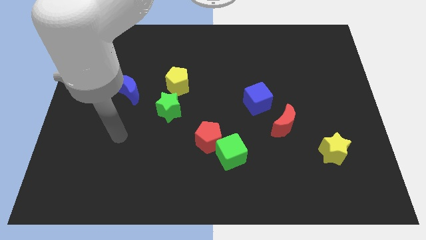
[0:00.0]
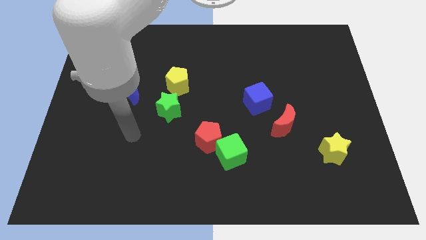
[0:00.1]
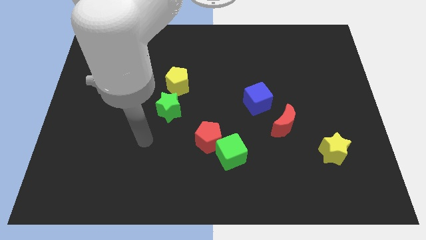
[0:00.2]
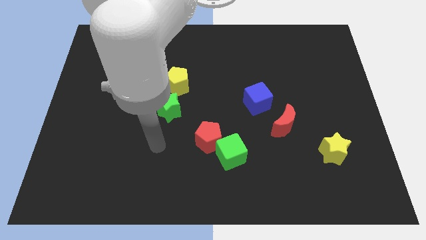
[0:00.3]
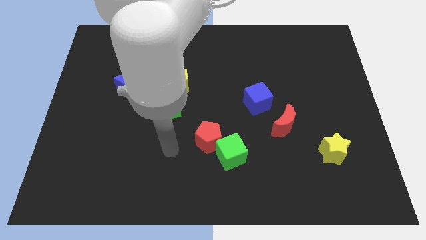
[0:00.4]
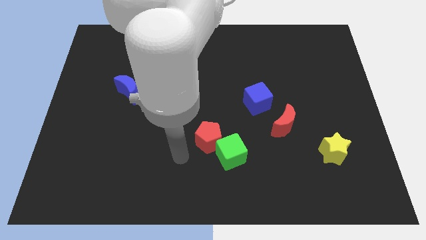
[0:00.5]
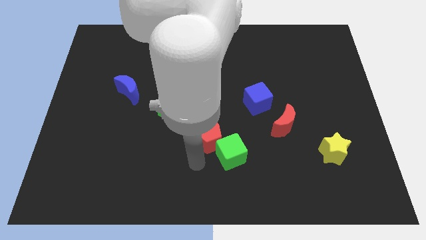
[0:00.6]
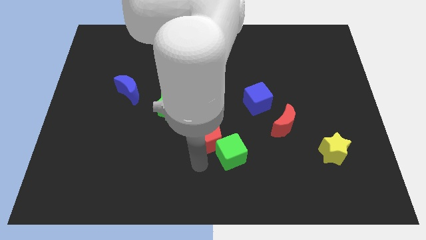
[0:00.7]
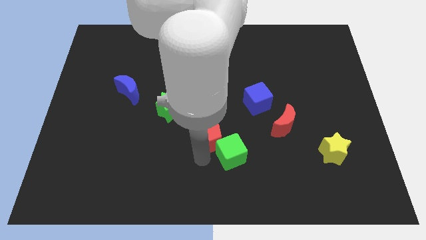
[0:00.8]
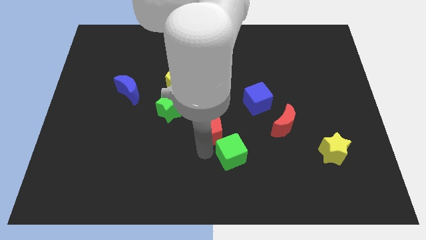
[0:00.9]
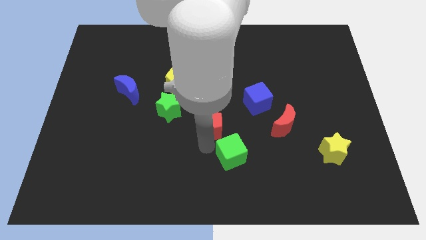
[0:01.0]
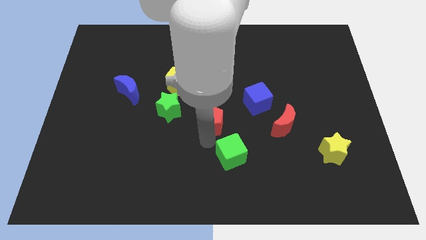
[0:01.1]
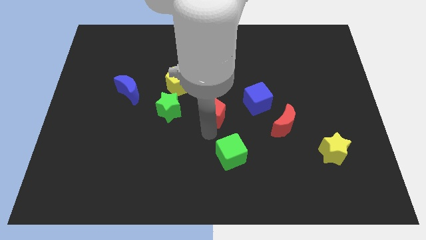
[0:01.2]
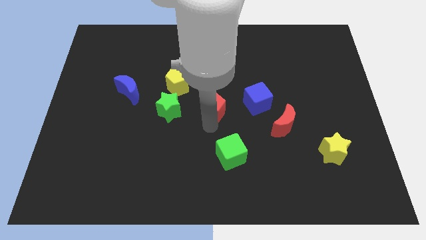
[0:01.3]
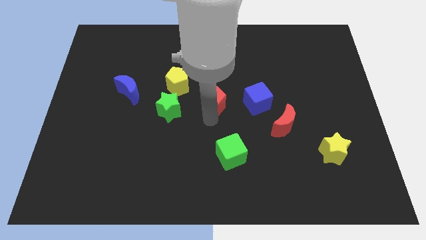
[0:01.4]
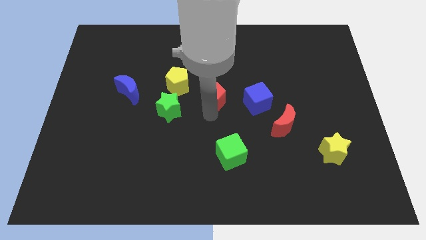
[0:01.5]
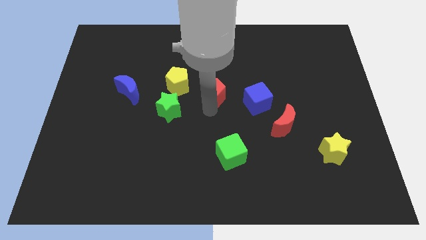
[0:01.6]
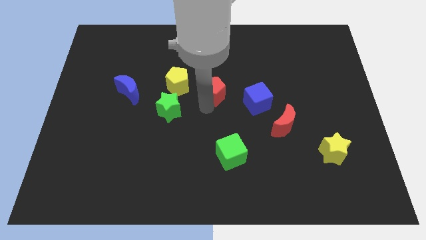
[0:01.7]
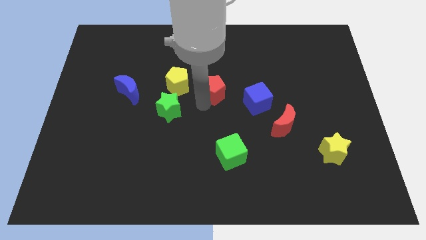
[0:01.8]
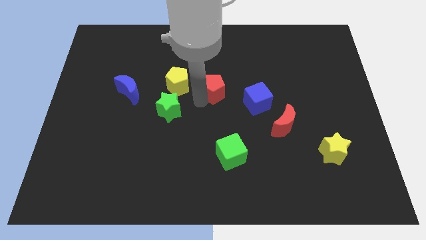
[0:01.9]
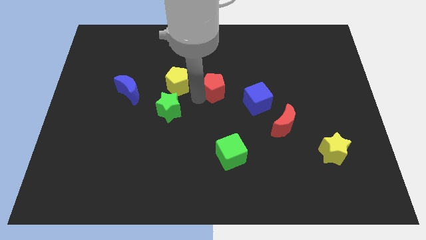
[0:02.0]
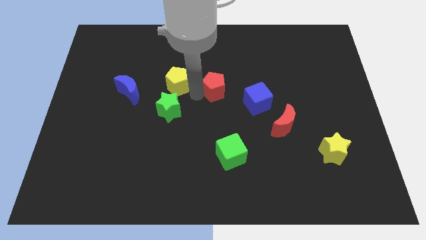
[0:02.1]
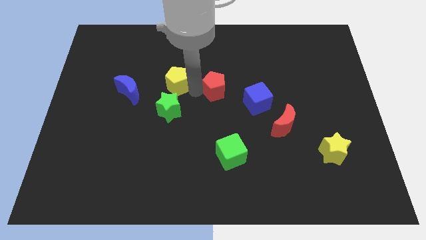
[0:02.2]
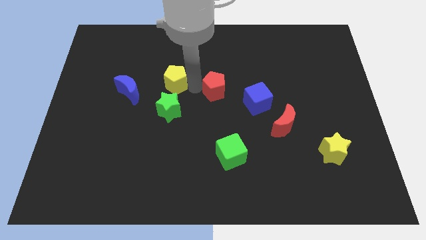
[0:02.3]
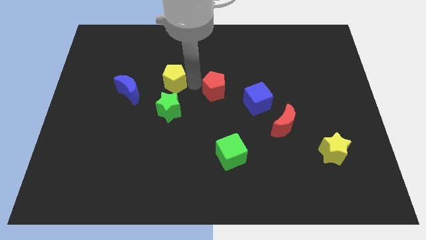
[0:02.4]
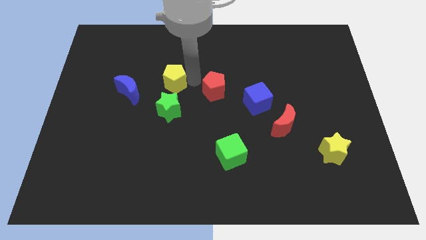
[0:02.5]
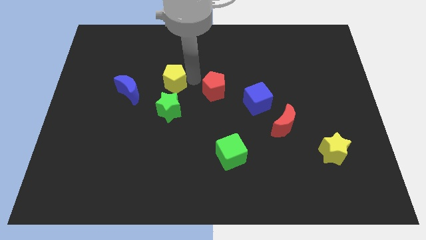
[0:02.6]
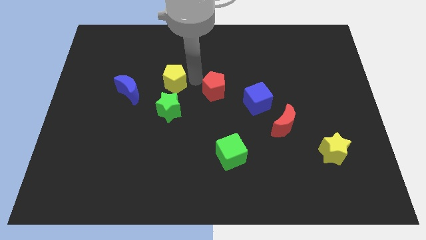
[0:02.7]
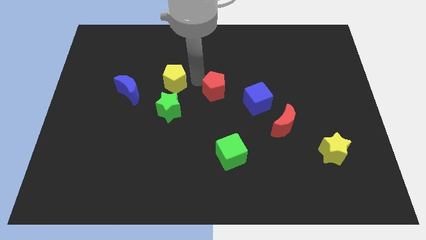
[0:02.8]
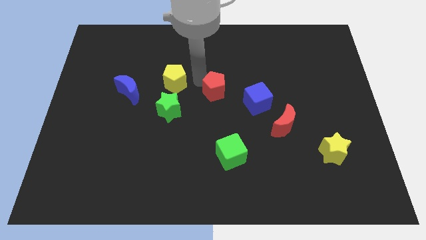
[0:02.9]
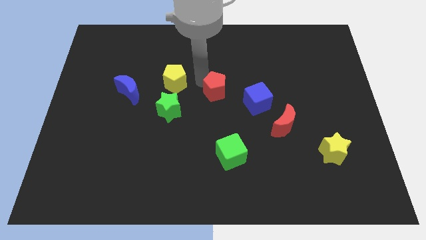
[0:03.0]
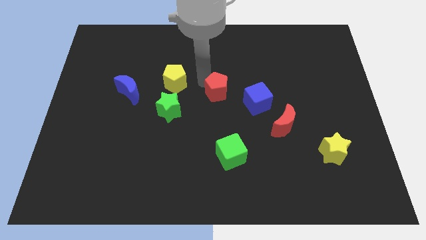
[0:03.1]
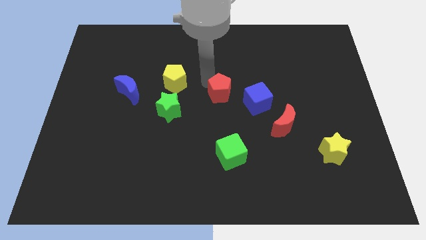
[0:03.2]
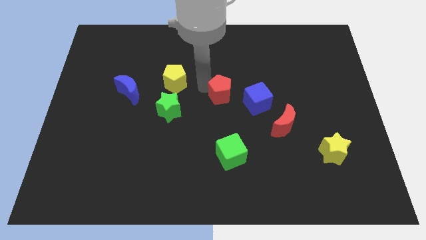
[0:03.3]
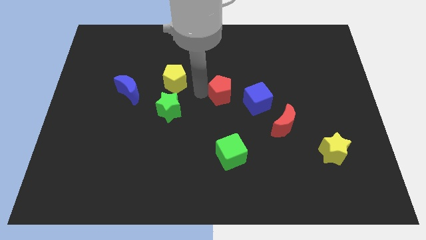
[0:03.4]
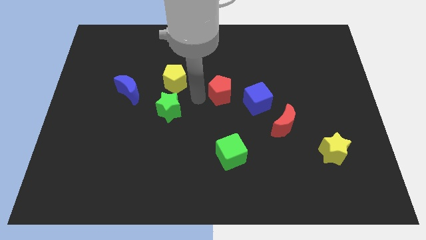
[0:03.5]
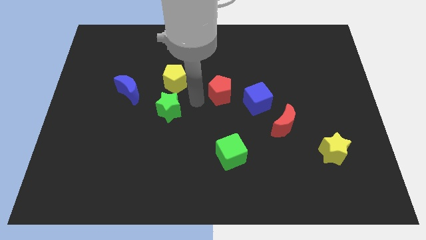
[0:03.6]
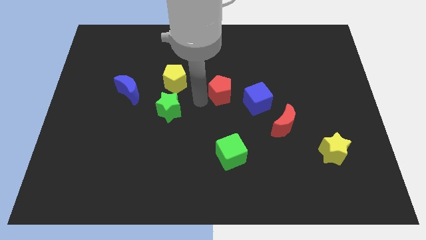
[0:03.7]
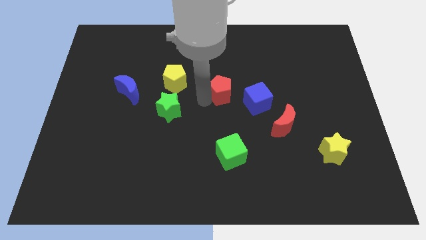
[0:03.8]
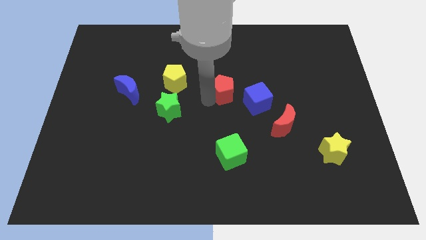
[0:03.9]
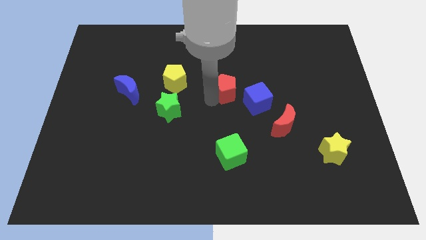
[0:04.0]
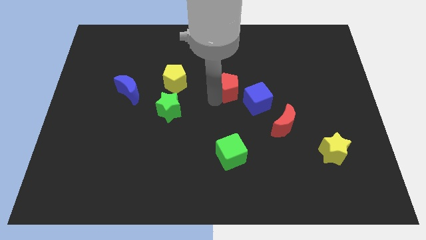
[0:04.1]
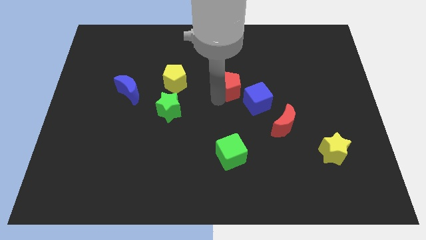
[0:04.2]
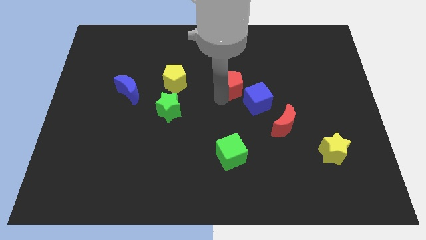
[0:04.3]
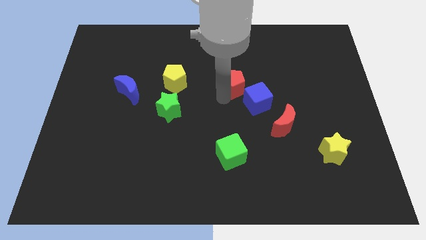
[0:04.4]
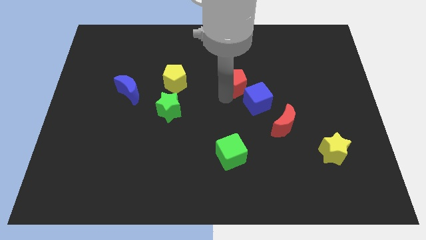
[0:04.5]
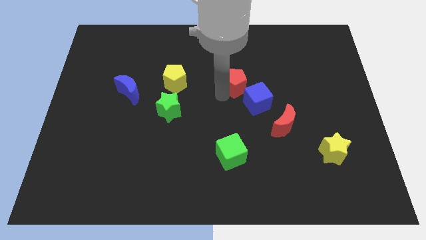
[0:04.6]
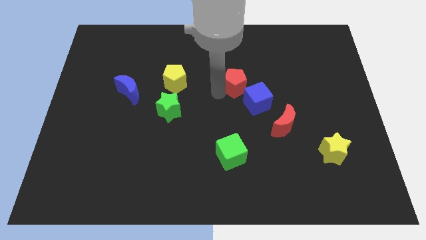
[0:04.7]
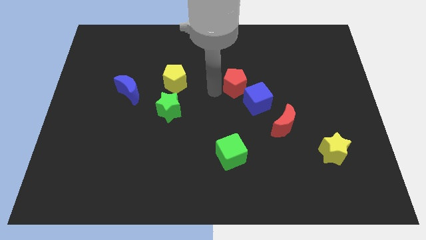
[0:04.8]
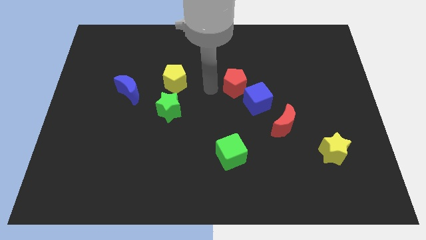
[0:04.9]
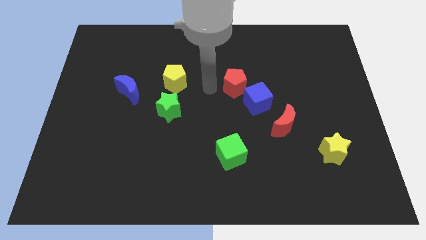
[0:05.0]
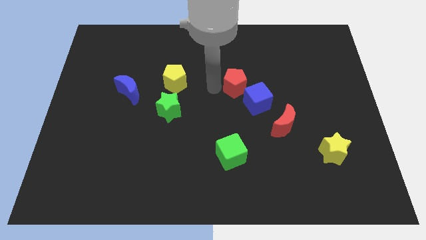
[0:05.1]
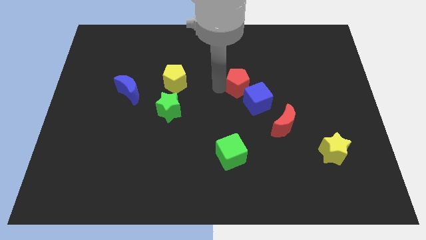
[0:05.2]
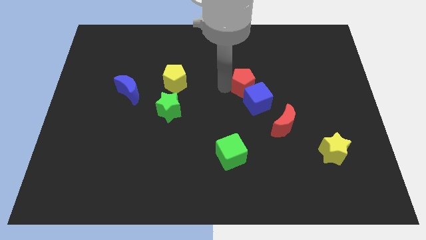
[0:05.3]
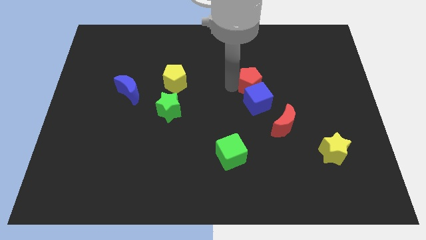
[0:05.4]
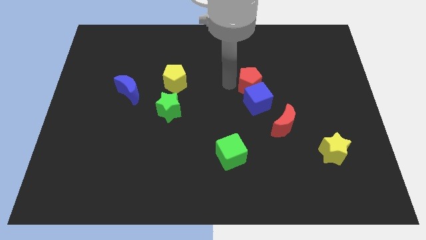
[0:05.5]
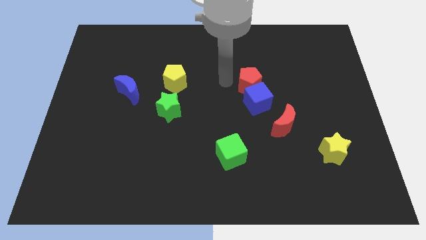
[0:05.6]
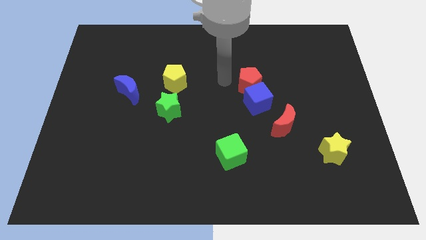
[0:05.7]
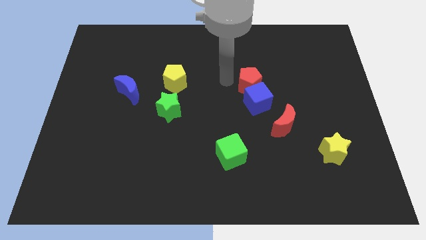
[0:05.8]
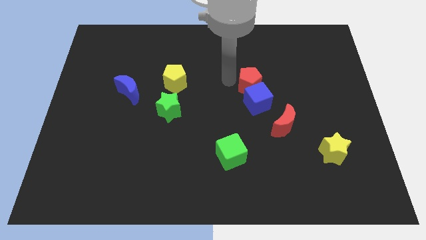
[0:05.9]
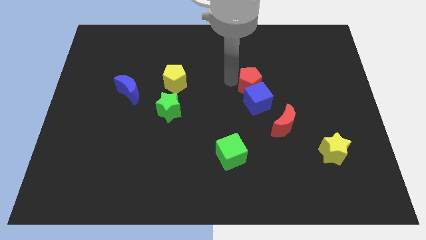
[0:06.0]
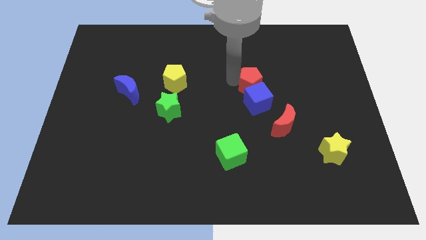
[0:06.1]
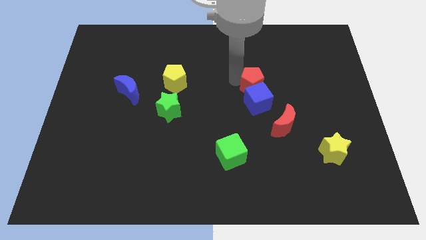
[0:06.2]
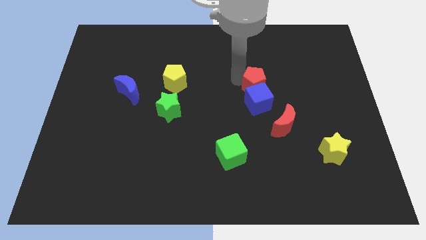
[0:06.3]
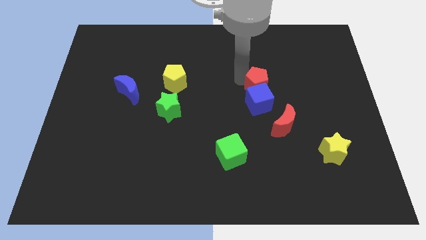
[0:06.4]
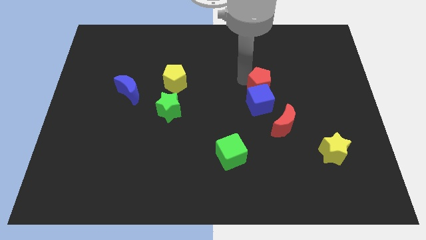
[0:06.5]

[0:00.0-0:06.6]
push the red pentagon above the red moon
